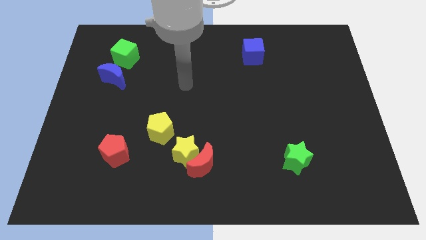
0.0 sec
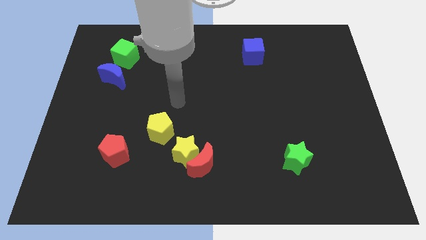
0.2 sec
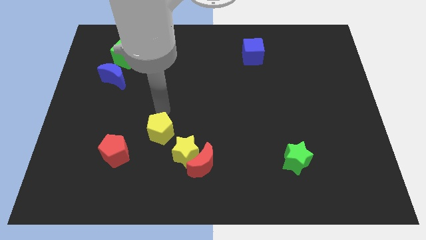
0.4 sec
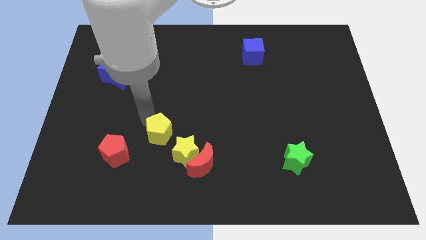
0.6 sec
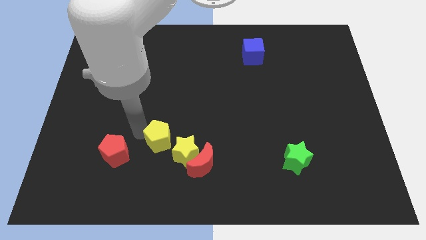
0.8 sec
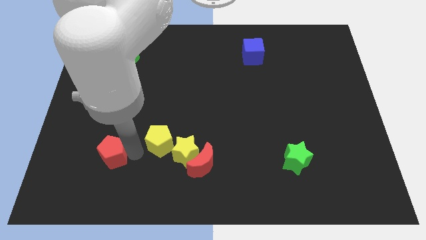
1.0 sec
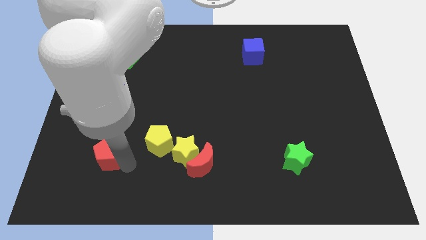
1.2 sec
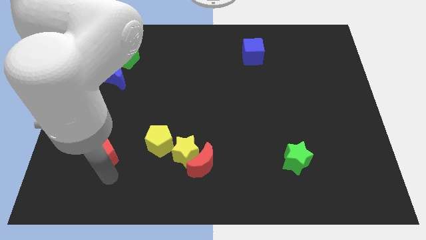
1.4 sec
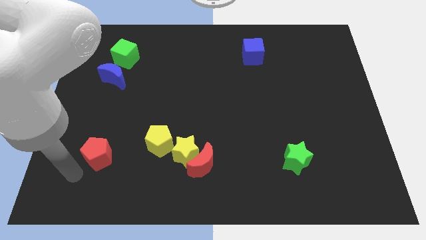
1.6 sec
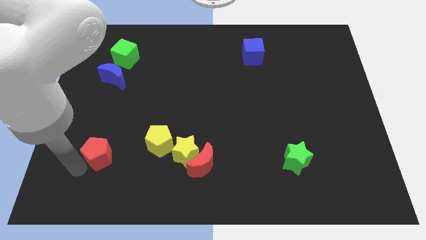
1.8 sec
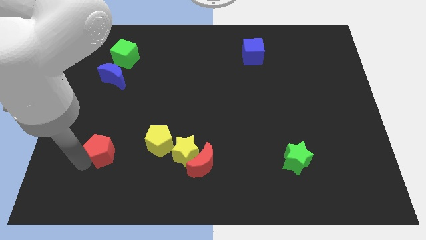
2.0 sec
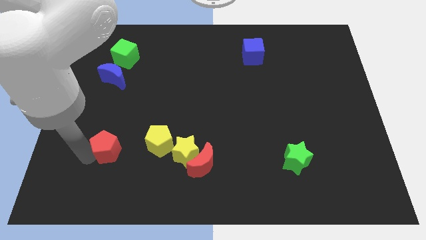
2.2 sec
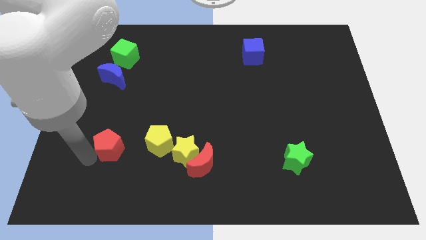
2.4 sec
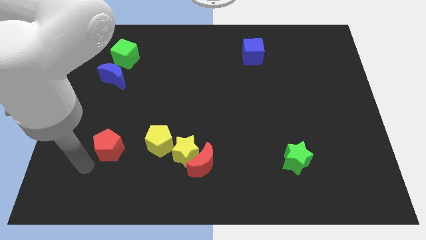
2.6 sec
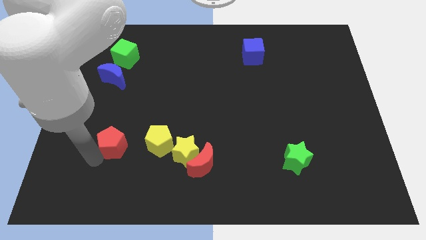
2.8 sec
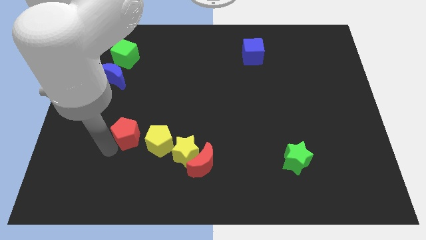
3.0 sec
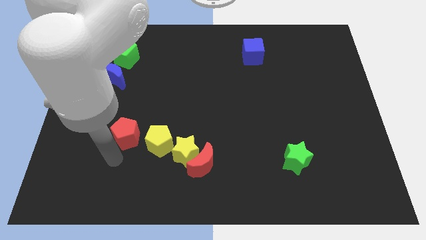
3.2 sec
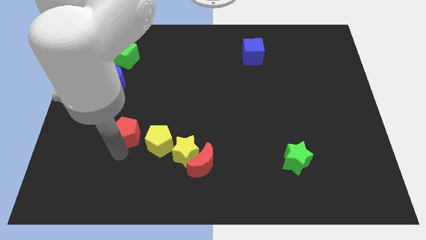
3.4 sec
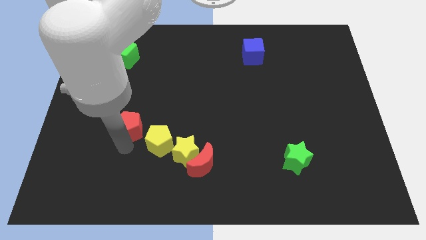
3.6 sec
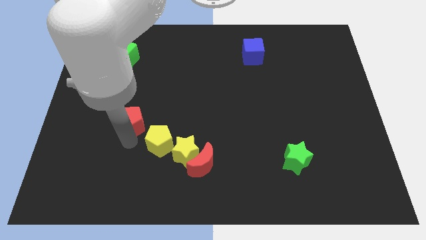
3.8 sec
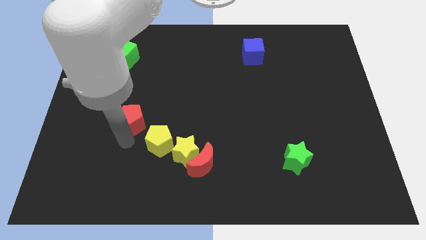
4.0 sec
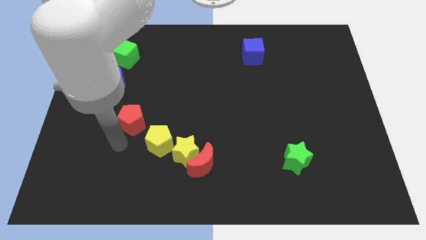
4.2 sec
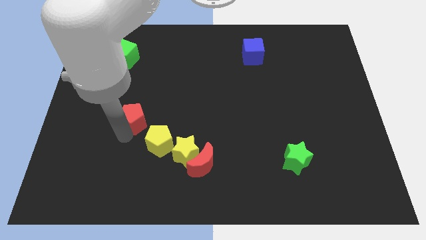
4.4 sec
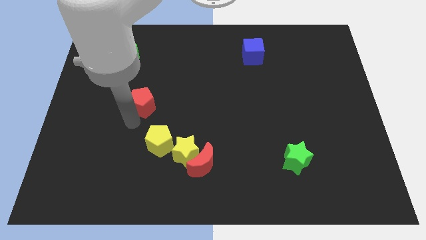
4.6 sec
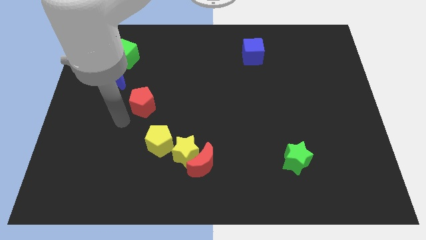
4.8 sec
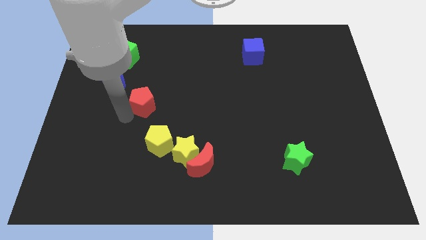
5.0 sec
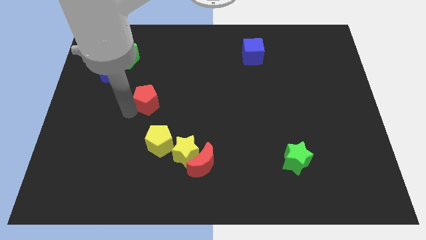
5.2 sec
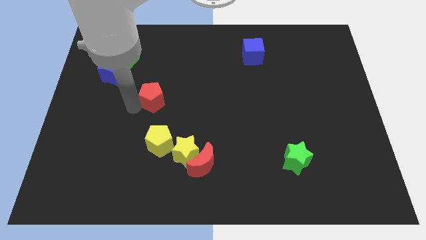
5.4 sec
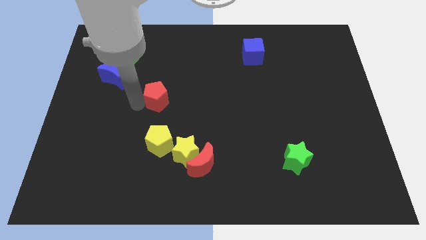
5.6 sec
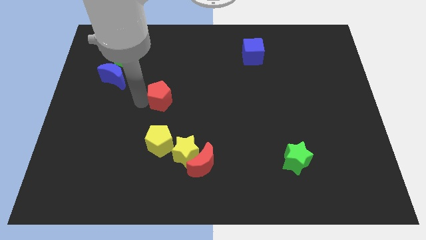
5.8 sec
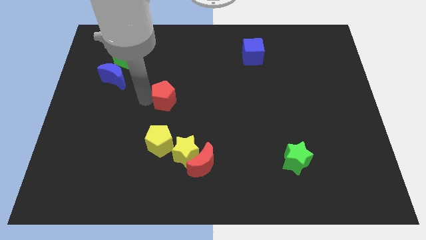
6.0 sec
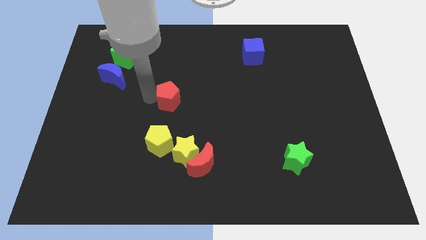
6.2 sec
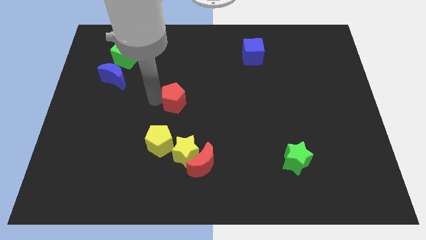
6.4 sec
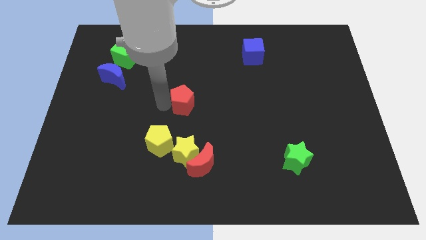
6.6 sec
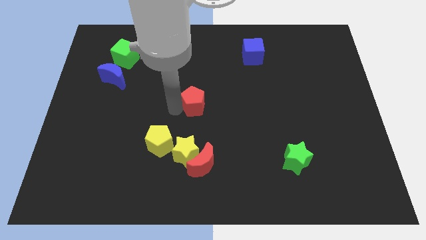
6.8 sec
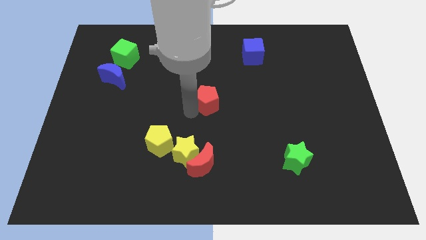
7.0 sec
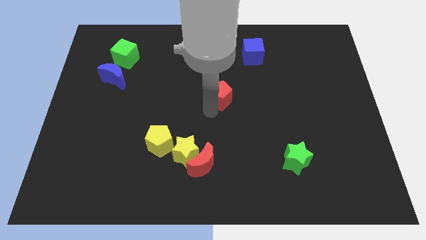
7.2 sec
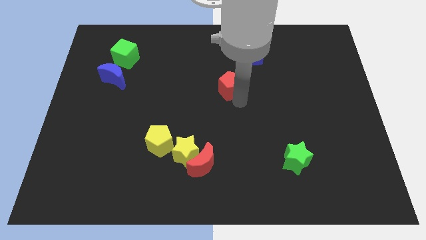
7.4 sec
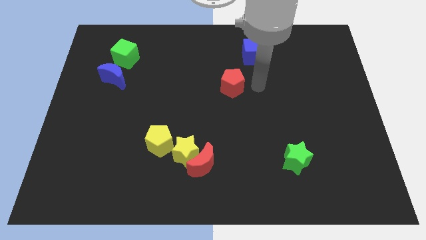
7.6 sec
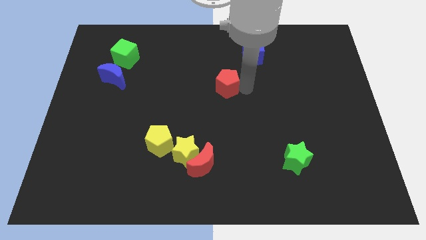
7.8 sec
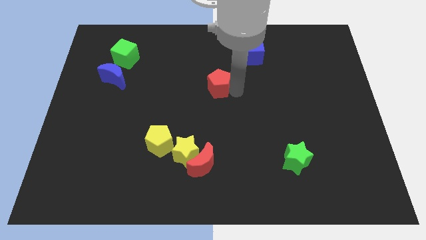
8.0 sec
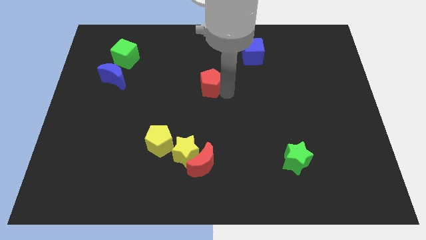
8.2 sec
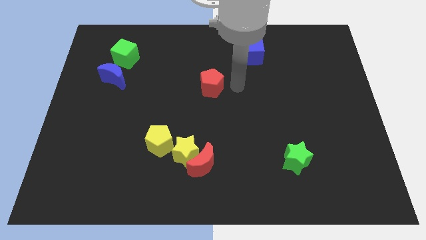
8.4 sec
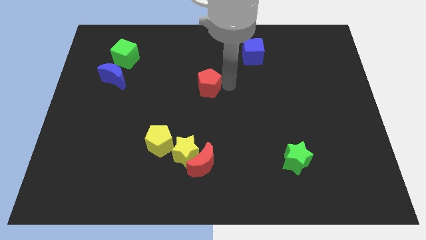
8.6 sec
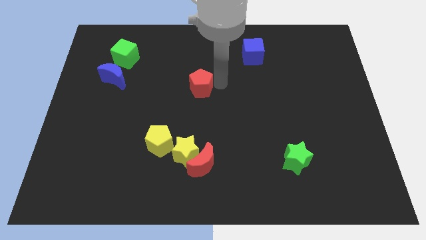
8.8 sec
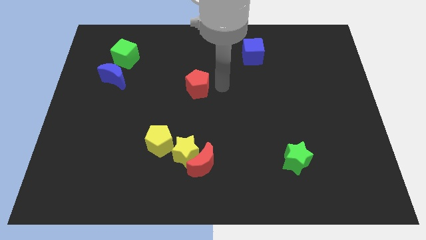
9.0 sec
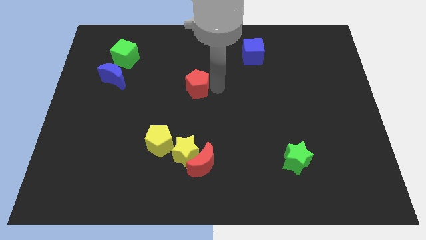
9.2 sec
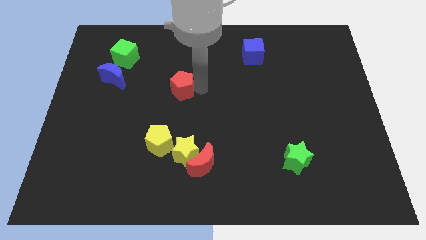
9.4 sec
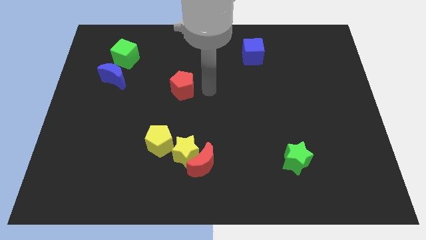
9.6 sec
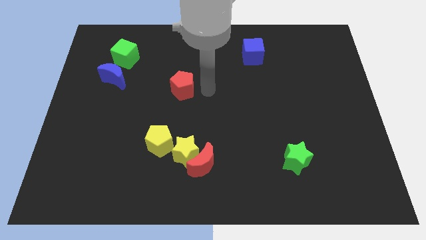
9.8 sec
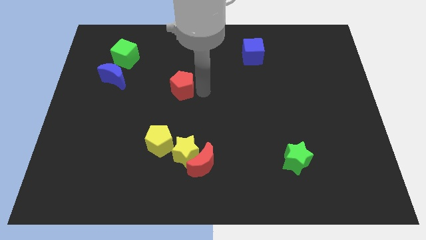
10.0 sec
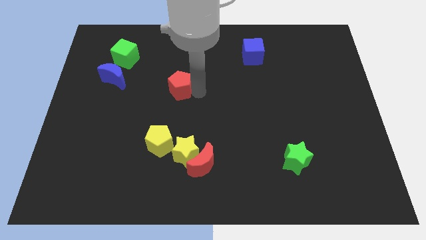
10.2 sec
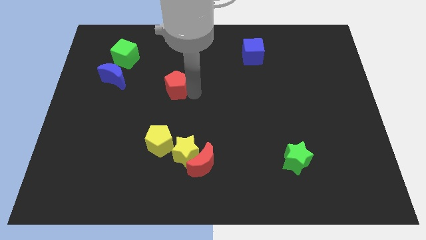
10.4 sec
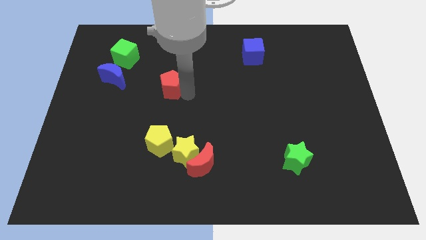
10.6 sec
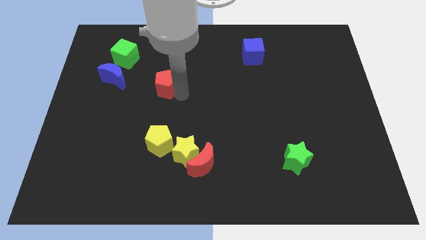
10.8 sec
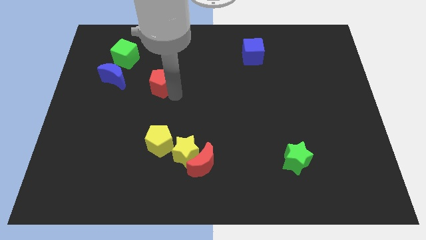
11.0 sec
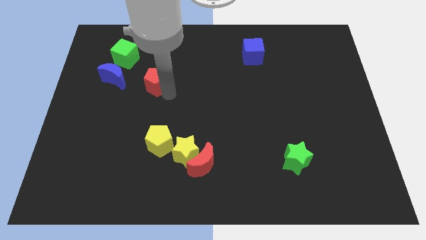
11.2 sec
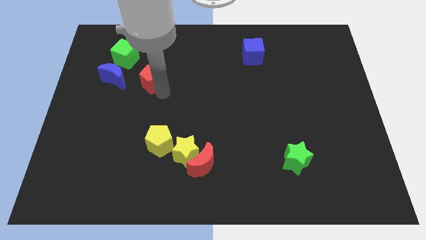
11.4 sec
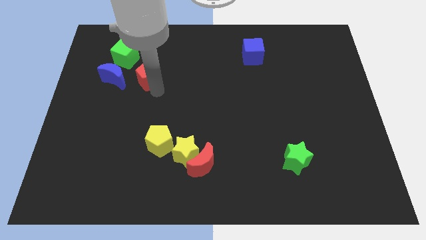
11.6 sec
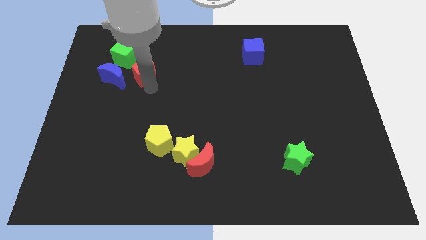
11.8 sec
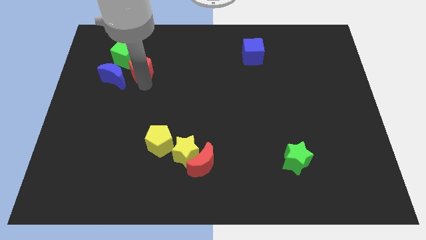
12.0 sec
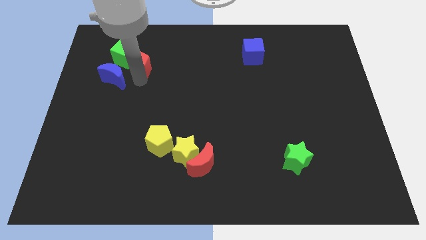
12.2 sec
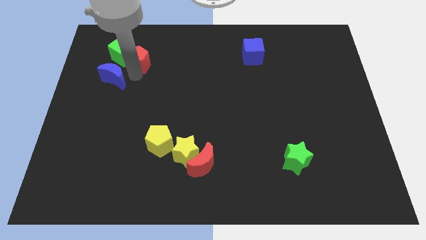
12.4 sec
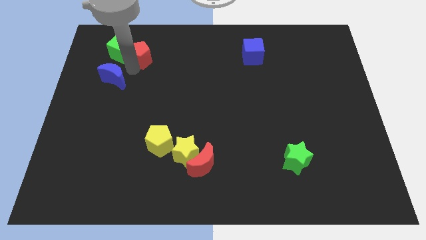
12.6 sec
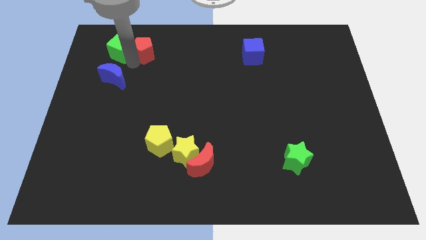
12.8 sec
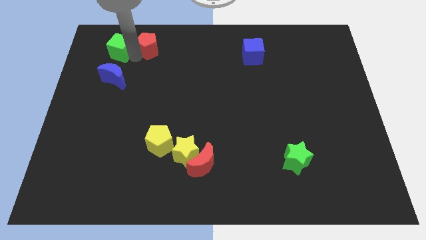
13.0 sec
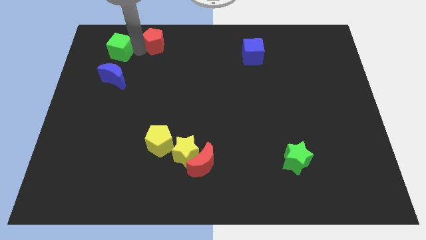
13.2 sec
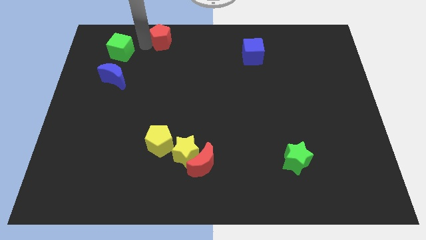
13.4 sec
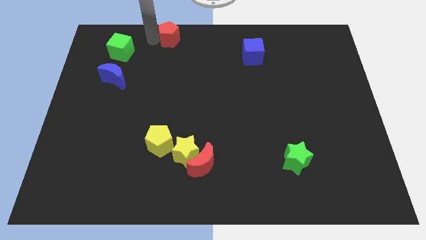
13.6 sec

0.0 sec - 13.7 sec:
push the red pentagon to the top side

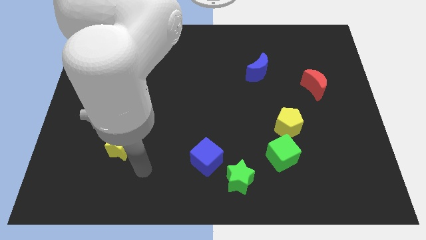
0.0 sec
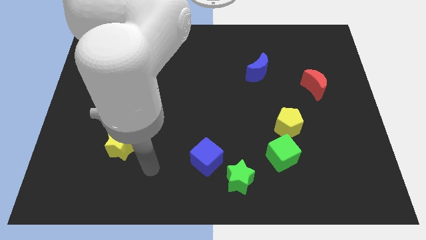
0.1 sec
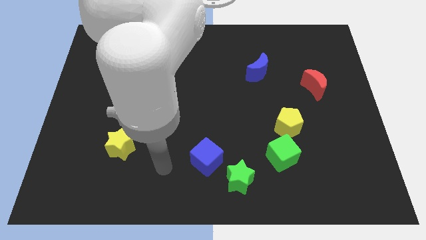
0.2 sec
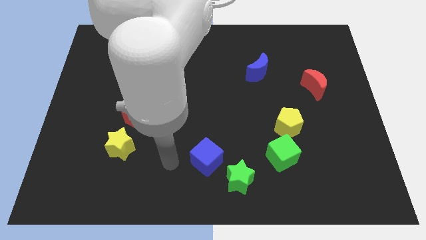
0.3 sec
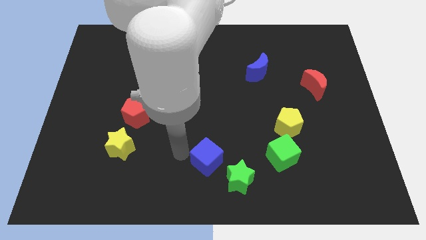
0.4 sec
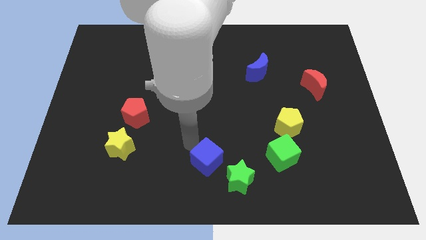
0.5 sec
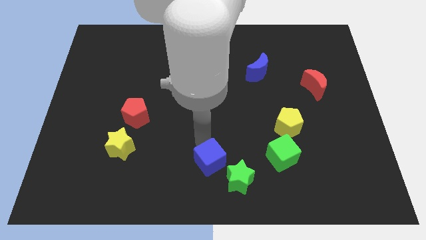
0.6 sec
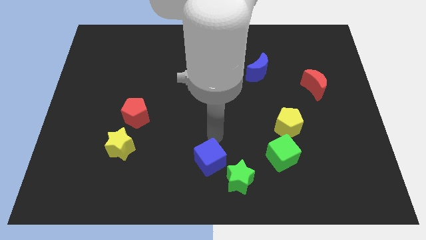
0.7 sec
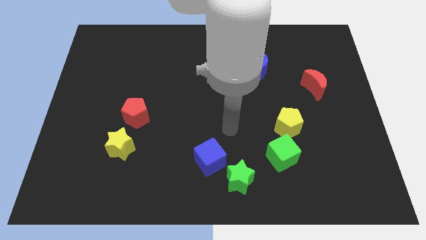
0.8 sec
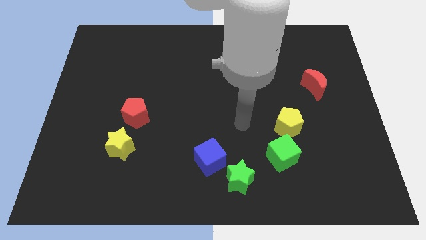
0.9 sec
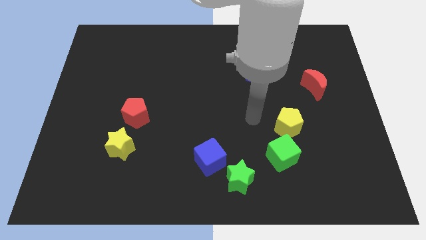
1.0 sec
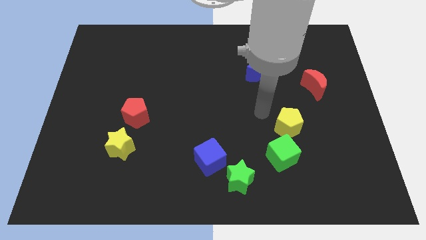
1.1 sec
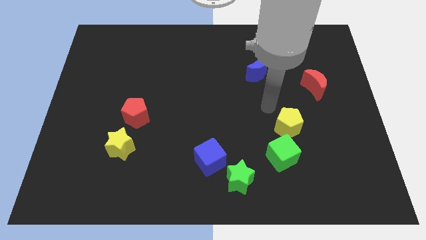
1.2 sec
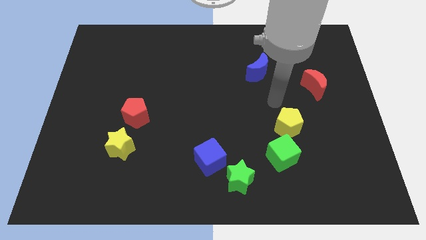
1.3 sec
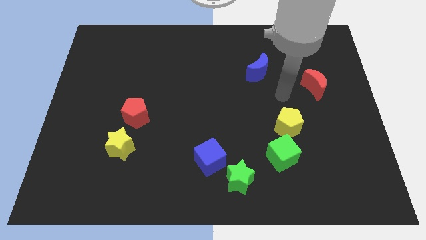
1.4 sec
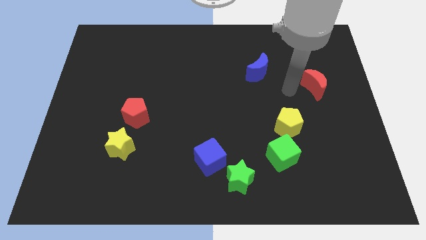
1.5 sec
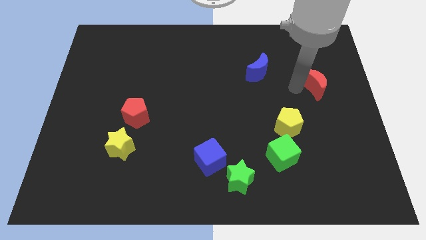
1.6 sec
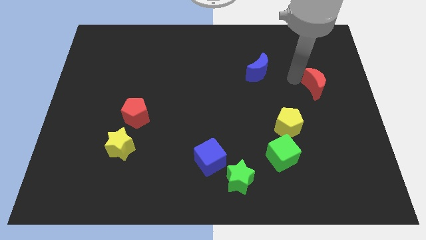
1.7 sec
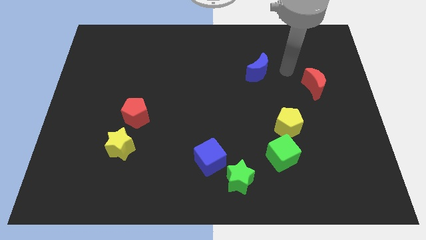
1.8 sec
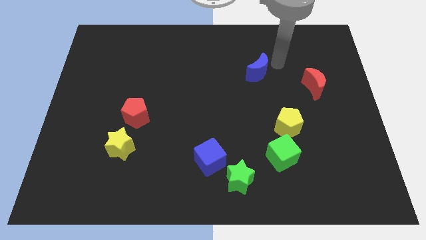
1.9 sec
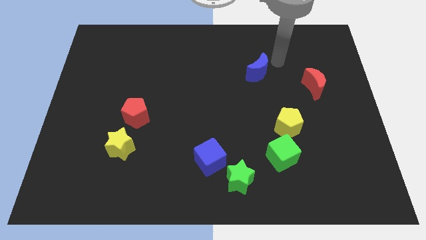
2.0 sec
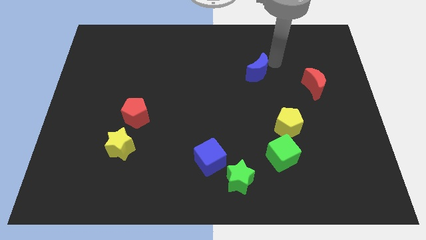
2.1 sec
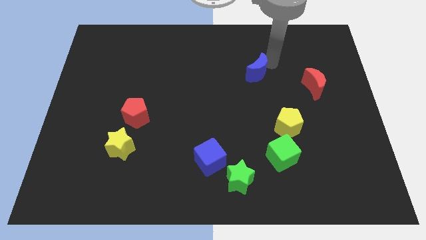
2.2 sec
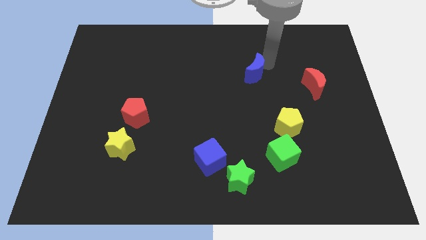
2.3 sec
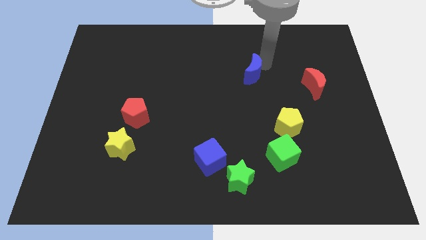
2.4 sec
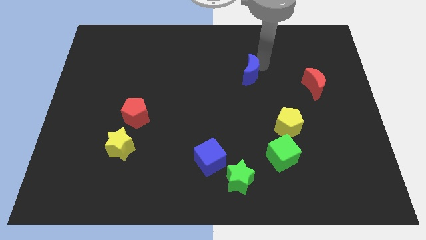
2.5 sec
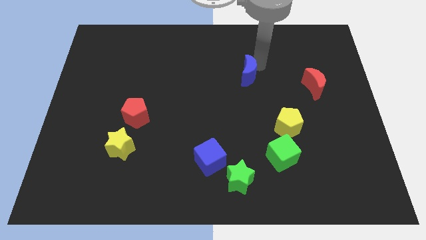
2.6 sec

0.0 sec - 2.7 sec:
move the blue moon to the middle of the board
